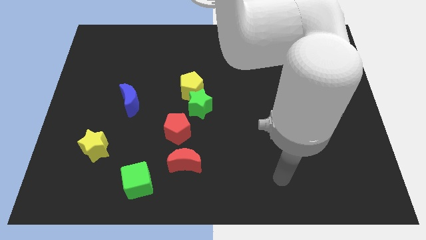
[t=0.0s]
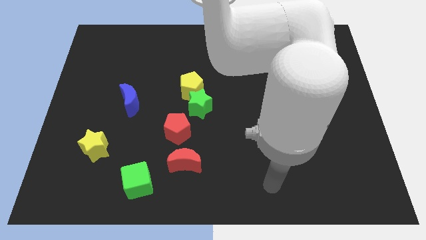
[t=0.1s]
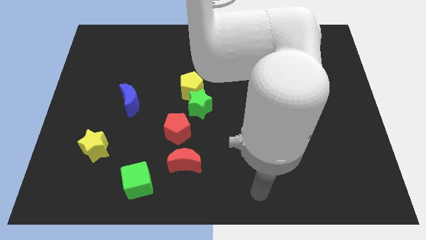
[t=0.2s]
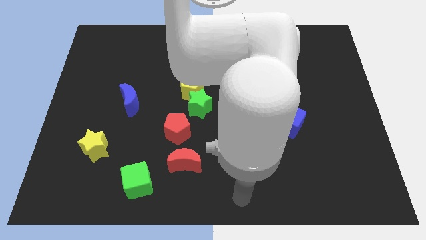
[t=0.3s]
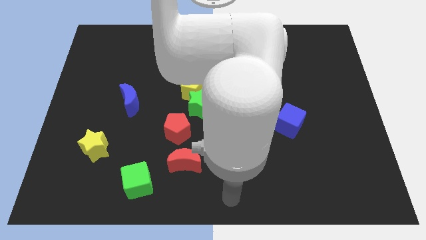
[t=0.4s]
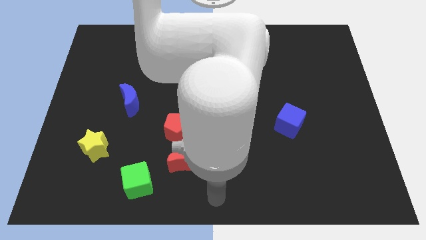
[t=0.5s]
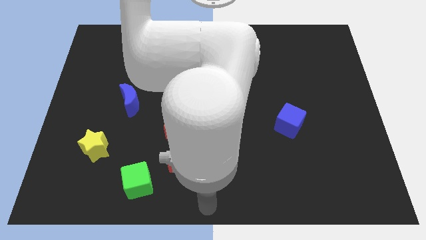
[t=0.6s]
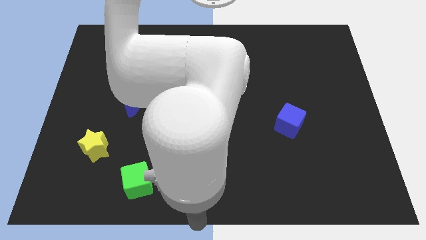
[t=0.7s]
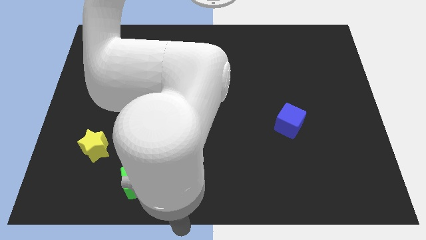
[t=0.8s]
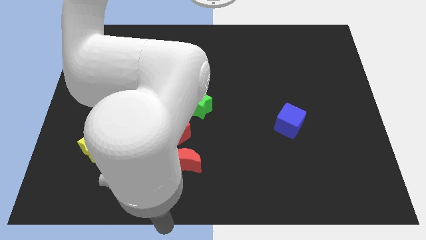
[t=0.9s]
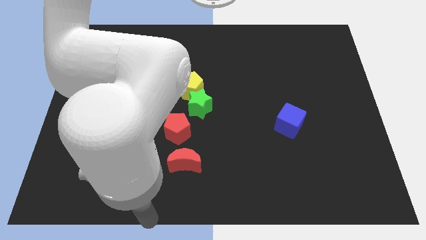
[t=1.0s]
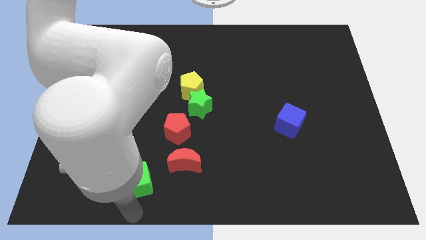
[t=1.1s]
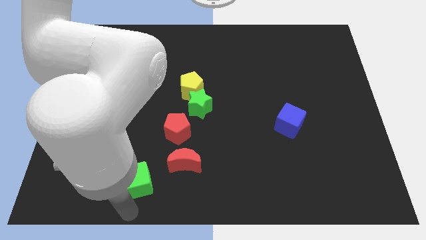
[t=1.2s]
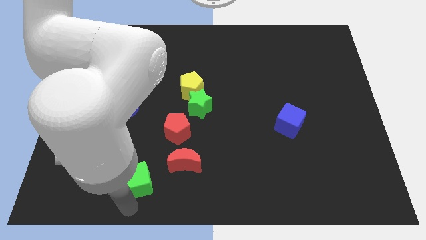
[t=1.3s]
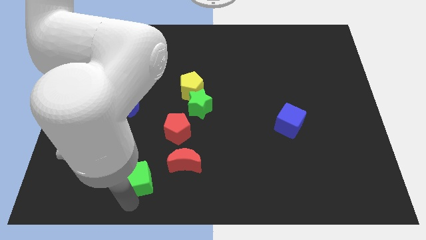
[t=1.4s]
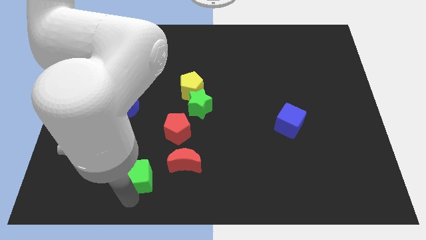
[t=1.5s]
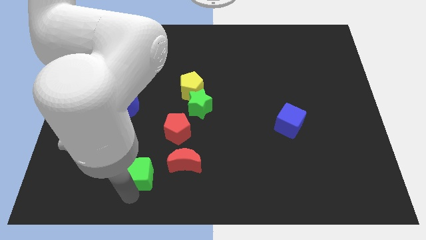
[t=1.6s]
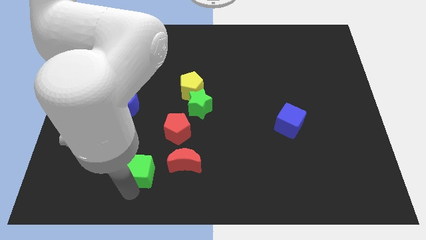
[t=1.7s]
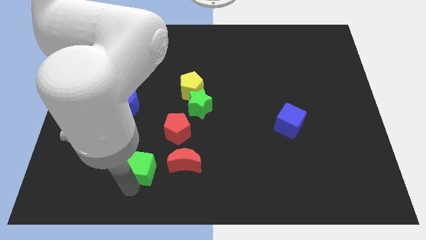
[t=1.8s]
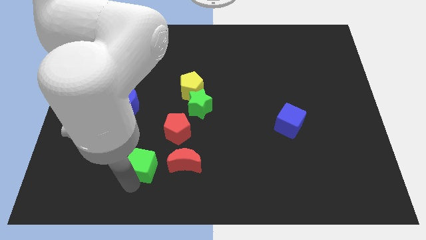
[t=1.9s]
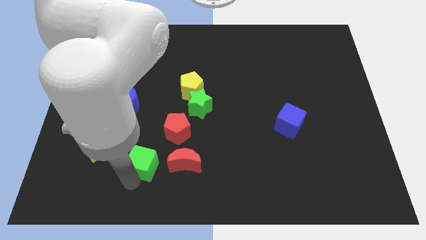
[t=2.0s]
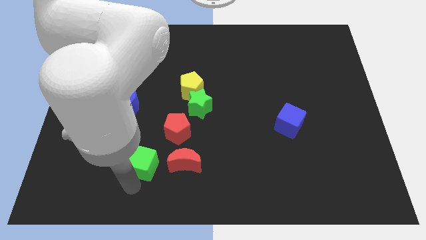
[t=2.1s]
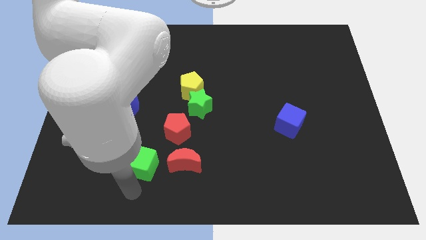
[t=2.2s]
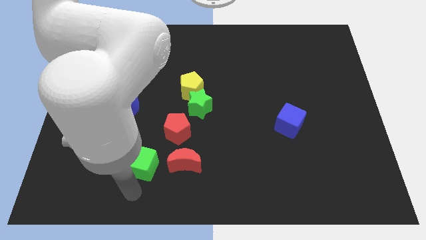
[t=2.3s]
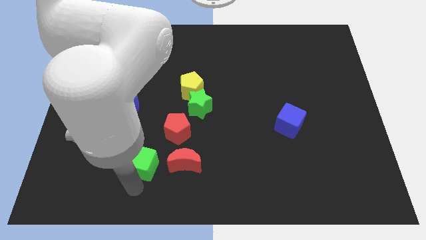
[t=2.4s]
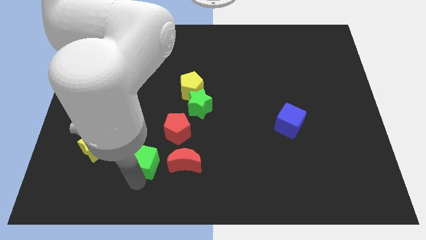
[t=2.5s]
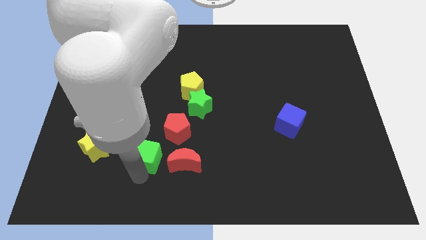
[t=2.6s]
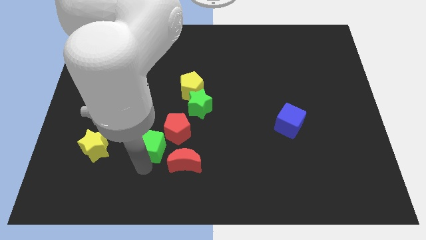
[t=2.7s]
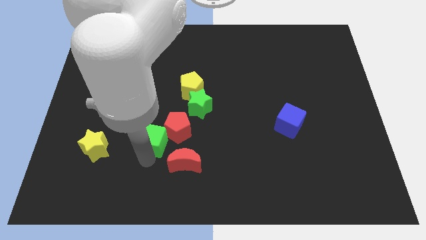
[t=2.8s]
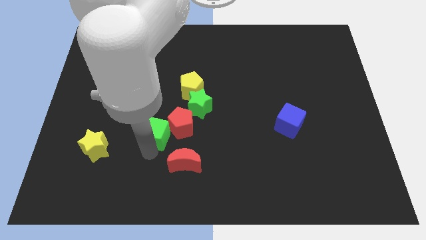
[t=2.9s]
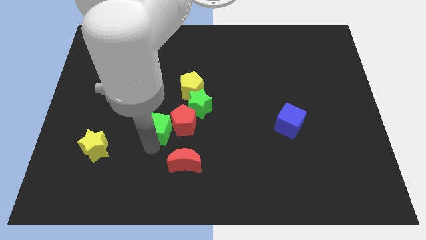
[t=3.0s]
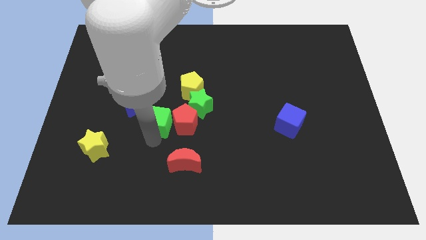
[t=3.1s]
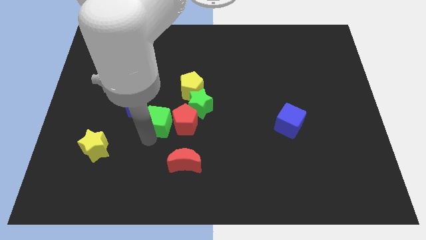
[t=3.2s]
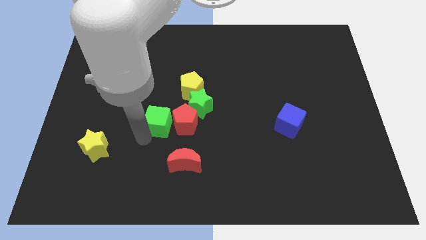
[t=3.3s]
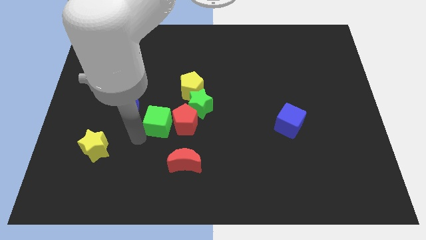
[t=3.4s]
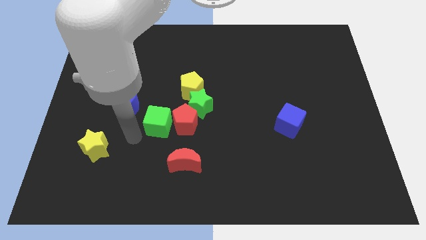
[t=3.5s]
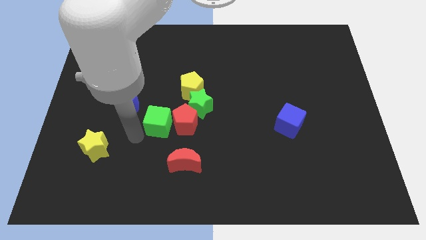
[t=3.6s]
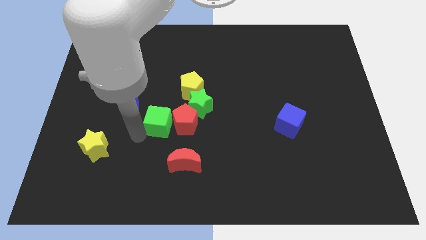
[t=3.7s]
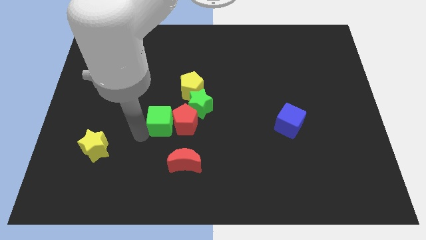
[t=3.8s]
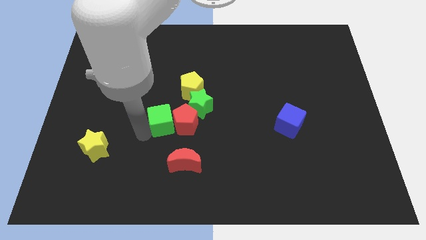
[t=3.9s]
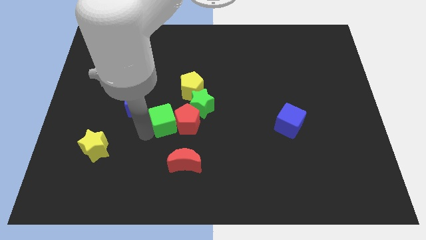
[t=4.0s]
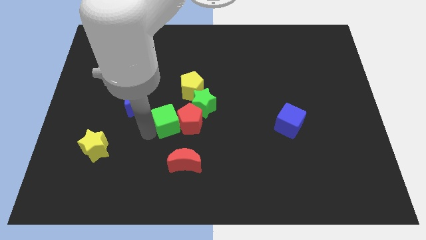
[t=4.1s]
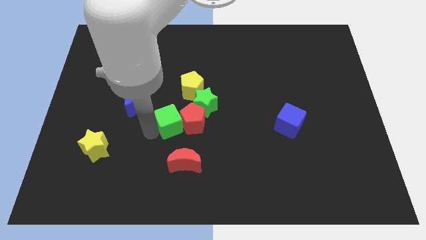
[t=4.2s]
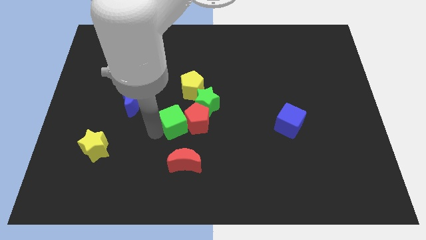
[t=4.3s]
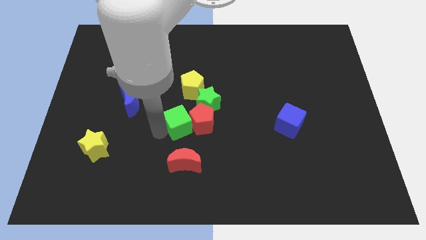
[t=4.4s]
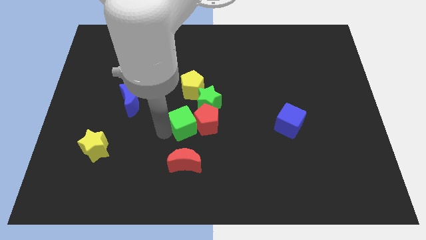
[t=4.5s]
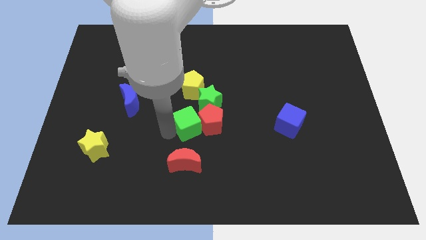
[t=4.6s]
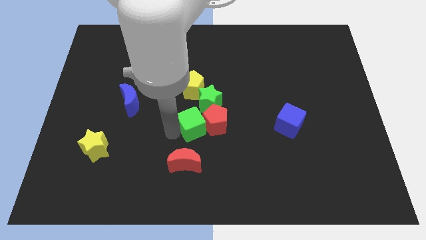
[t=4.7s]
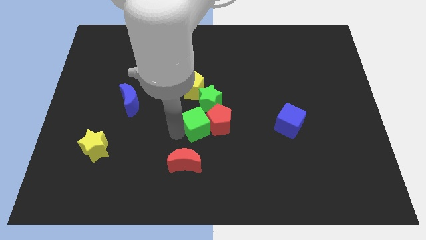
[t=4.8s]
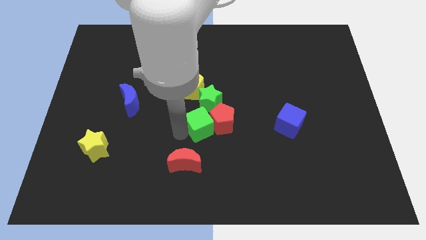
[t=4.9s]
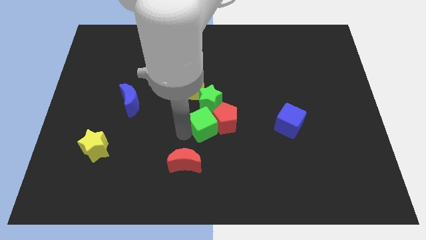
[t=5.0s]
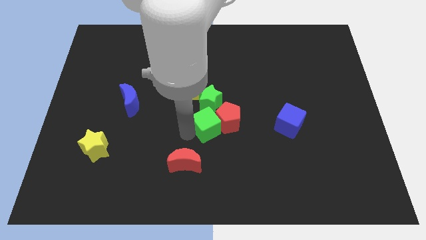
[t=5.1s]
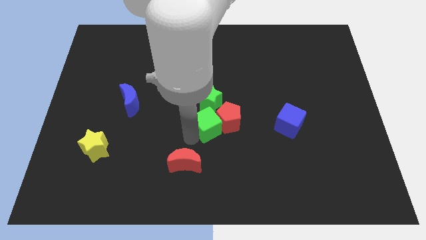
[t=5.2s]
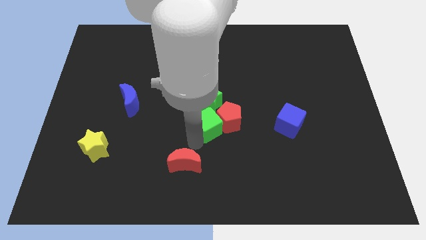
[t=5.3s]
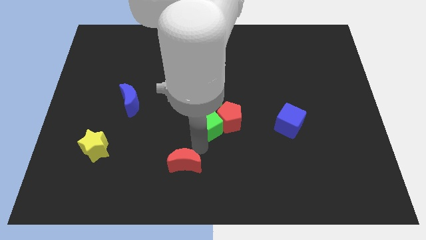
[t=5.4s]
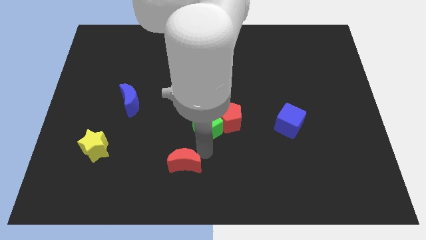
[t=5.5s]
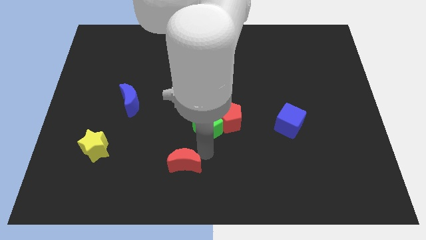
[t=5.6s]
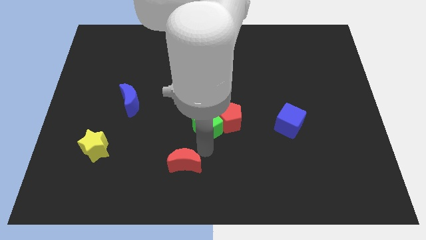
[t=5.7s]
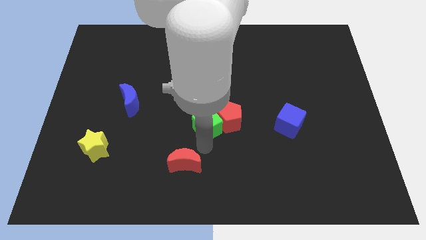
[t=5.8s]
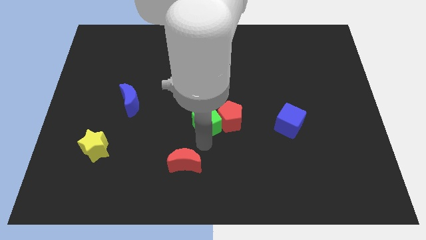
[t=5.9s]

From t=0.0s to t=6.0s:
move the green cube towards the green star

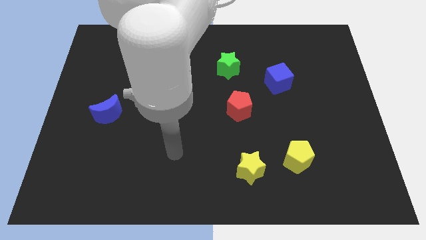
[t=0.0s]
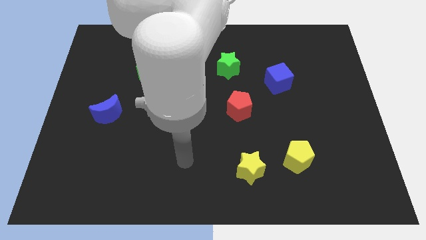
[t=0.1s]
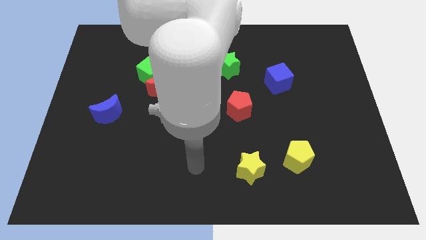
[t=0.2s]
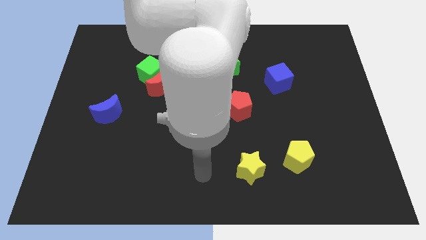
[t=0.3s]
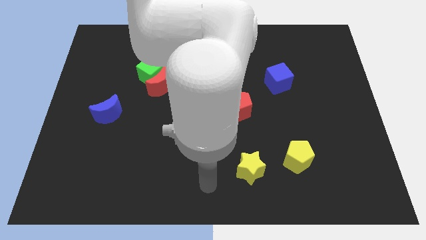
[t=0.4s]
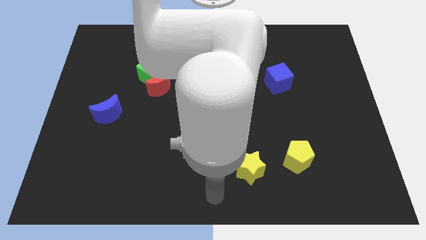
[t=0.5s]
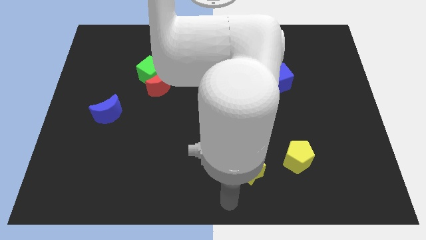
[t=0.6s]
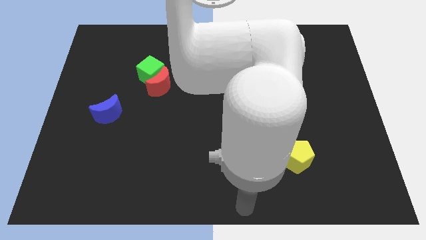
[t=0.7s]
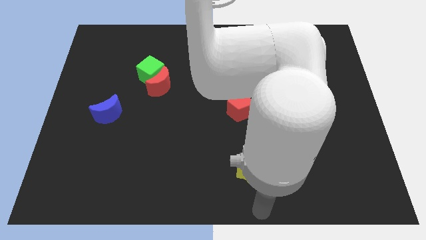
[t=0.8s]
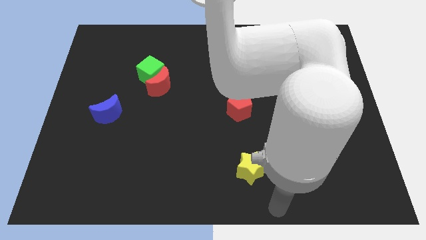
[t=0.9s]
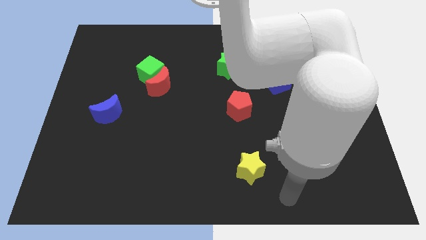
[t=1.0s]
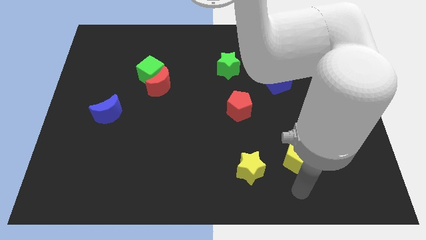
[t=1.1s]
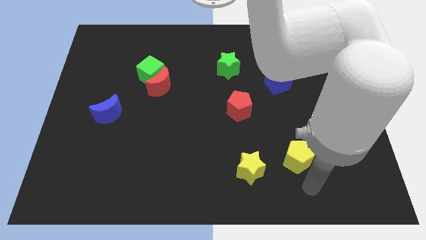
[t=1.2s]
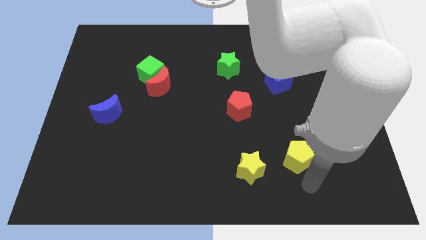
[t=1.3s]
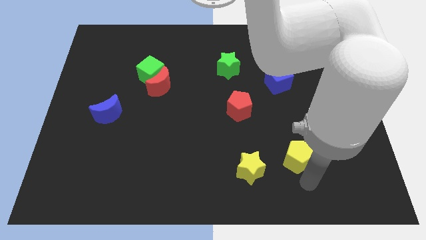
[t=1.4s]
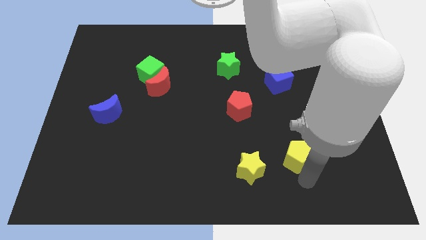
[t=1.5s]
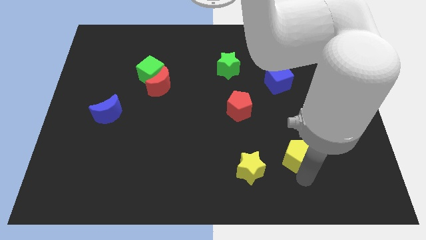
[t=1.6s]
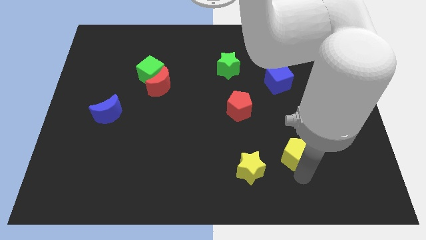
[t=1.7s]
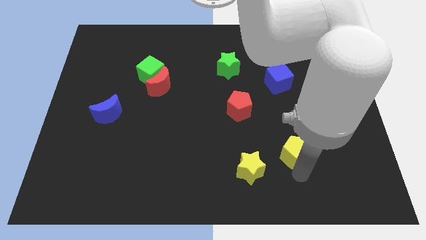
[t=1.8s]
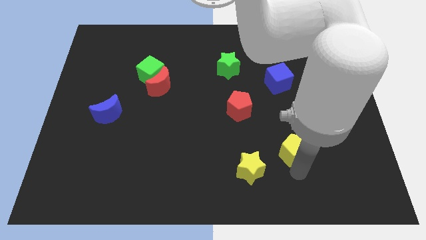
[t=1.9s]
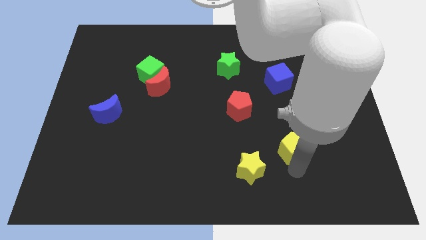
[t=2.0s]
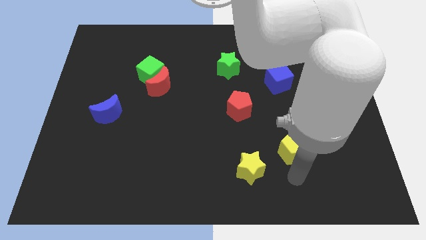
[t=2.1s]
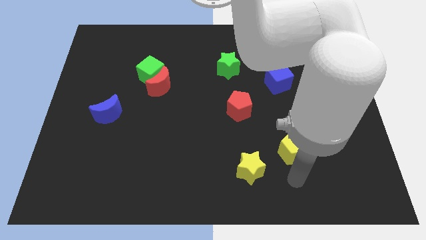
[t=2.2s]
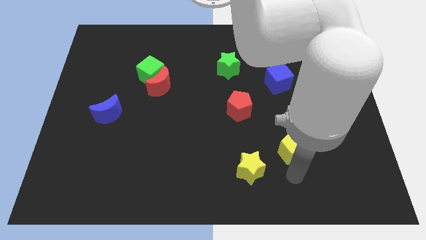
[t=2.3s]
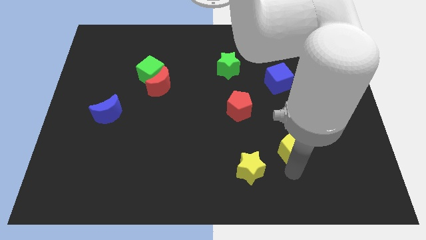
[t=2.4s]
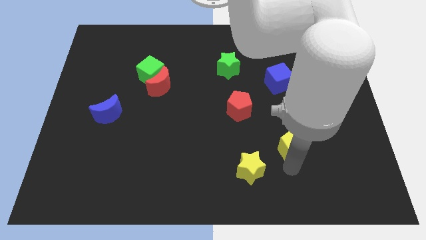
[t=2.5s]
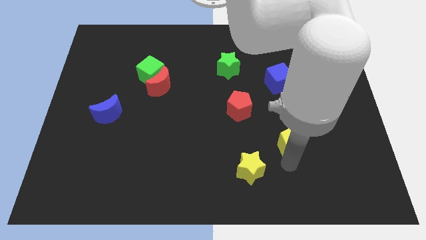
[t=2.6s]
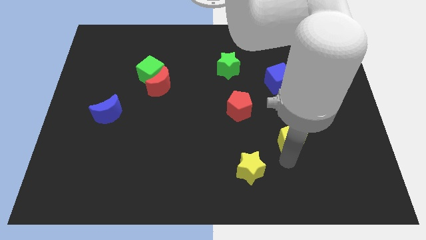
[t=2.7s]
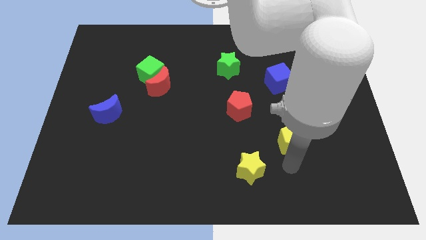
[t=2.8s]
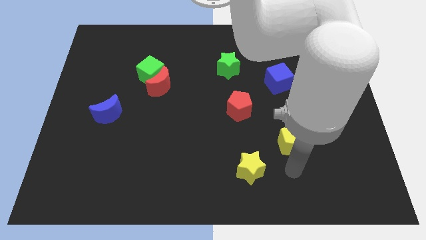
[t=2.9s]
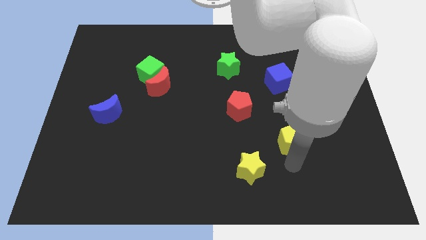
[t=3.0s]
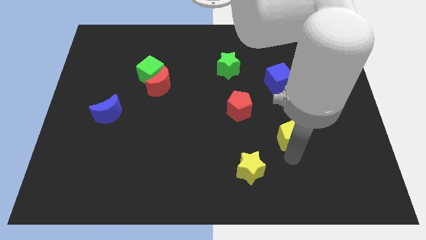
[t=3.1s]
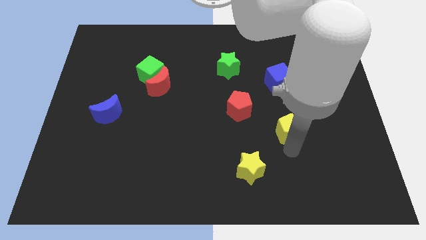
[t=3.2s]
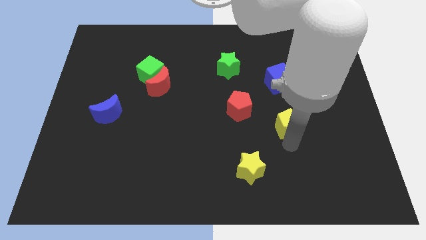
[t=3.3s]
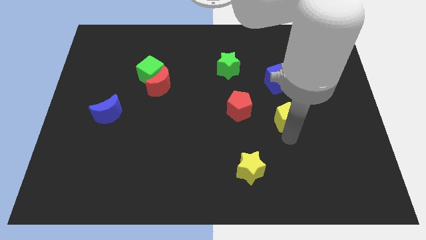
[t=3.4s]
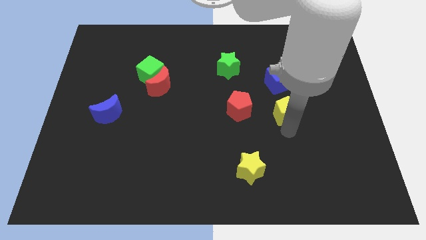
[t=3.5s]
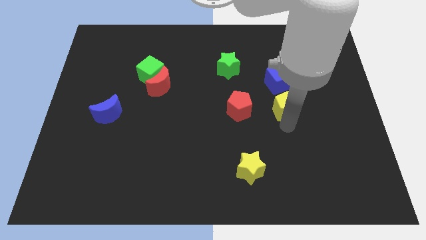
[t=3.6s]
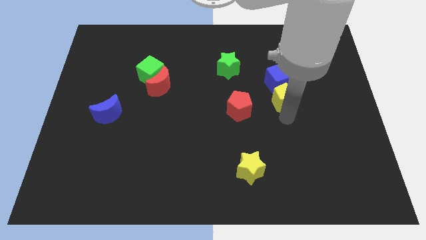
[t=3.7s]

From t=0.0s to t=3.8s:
move the yellow pentagon towards the blue cube
